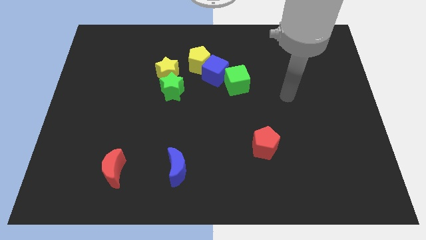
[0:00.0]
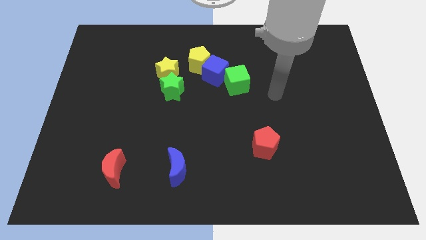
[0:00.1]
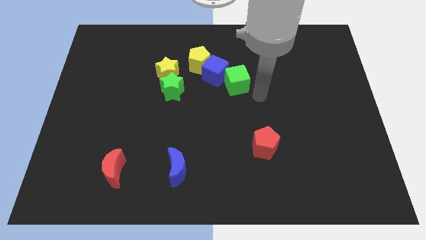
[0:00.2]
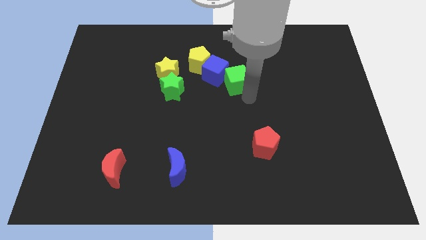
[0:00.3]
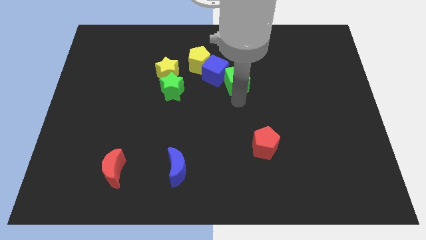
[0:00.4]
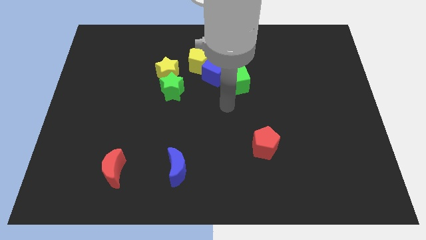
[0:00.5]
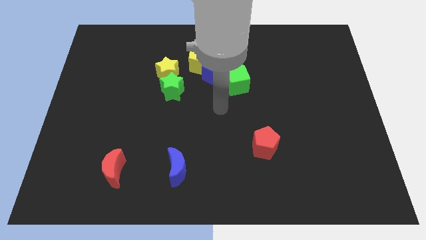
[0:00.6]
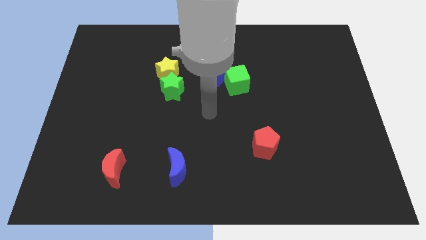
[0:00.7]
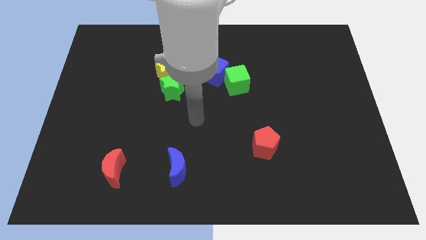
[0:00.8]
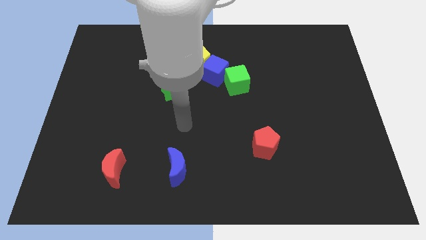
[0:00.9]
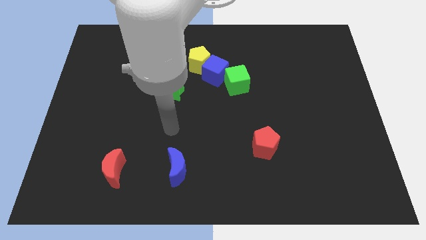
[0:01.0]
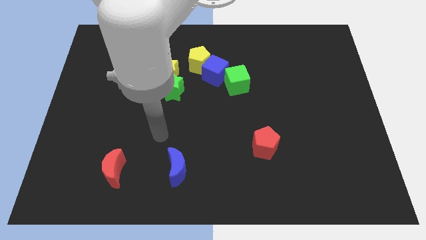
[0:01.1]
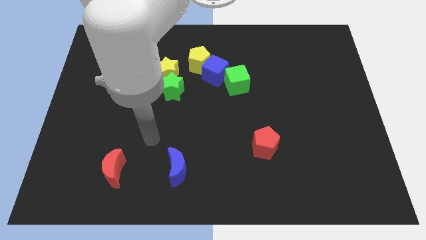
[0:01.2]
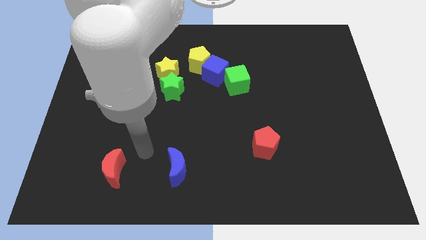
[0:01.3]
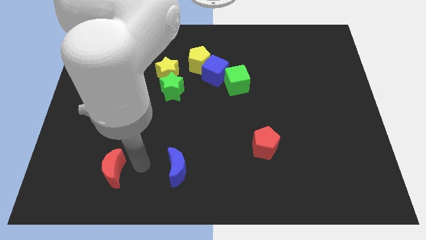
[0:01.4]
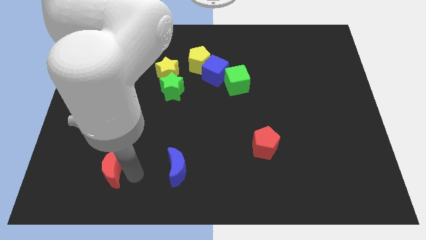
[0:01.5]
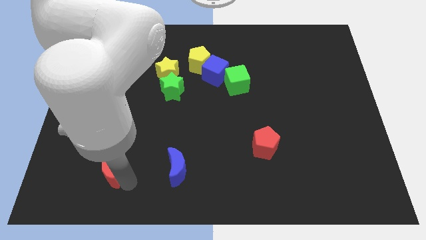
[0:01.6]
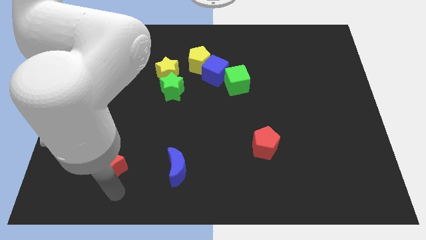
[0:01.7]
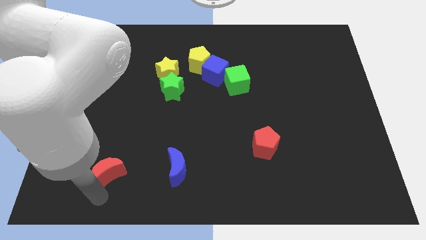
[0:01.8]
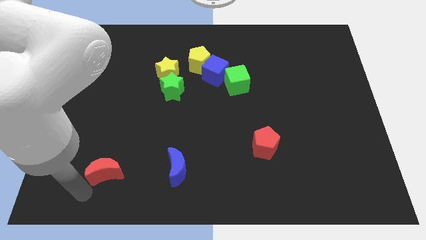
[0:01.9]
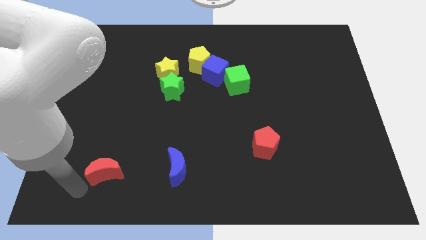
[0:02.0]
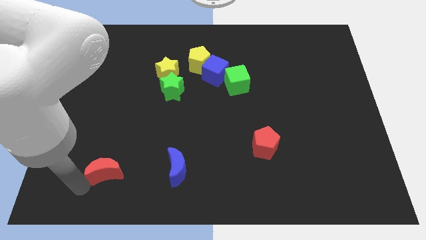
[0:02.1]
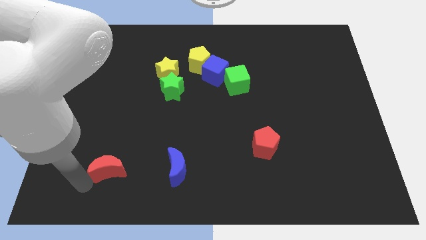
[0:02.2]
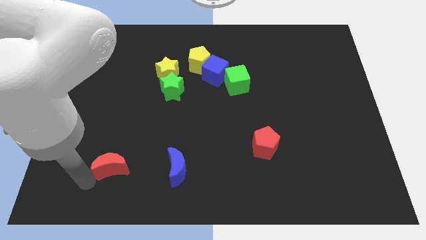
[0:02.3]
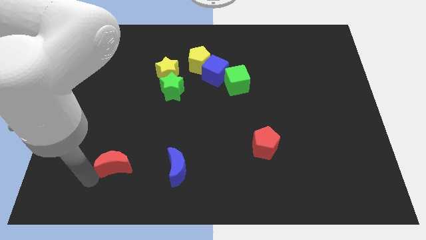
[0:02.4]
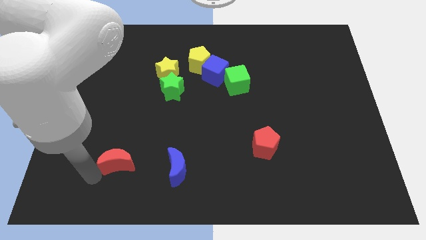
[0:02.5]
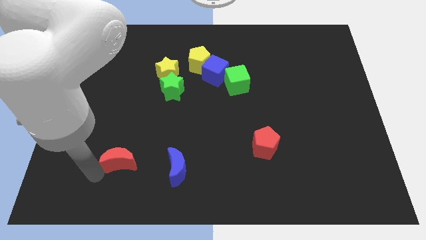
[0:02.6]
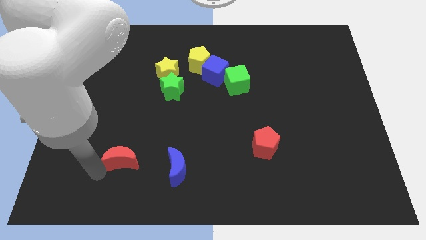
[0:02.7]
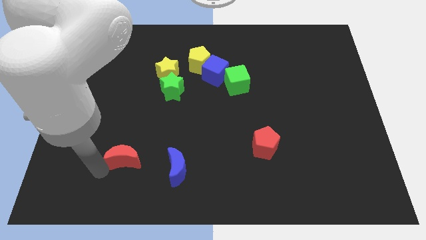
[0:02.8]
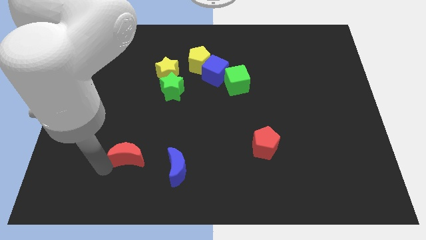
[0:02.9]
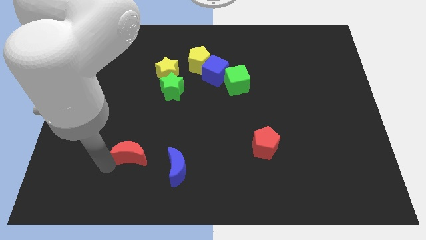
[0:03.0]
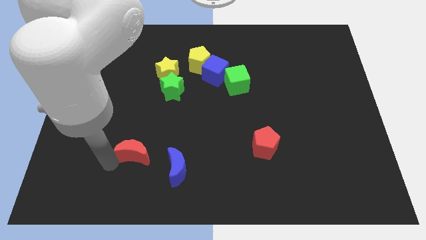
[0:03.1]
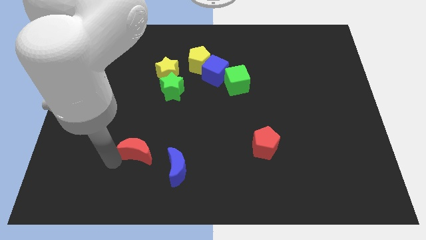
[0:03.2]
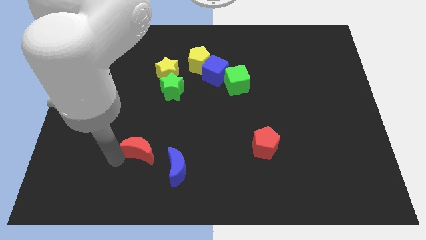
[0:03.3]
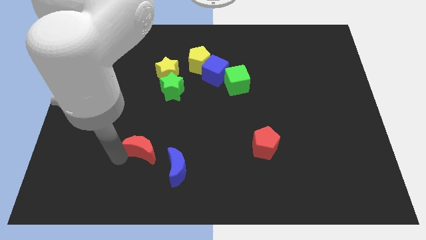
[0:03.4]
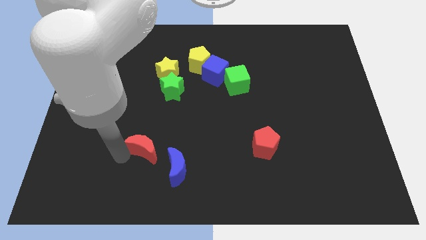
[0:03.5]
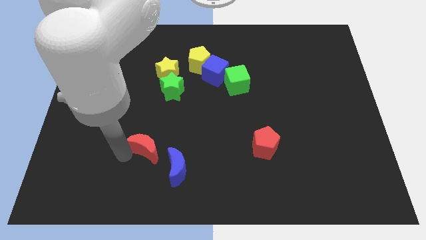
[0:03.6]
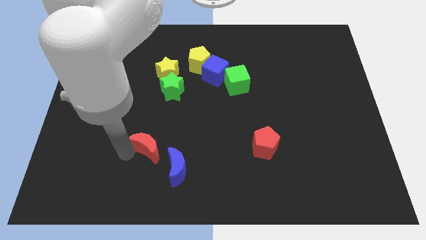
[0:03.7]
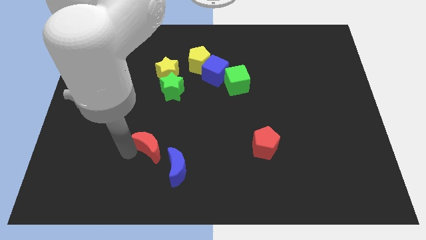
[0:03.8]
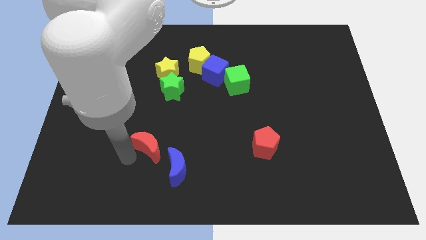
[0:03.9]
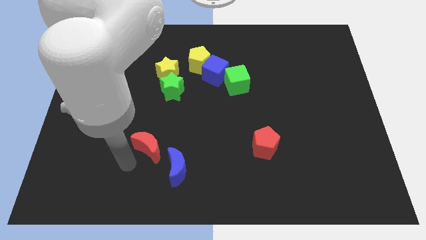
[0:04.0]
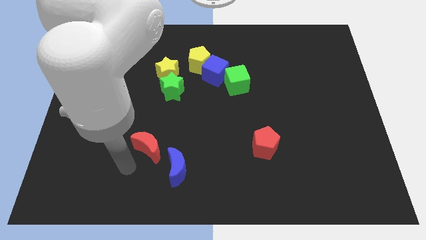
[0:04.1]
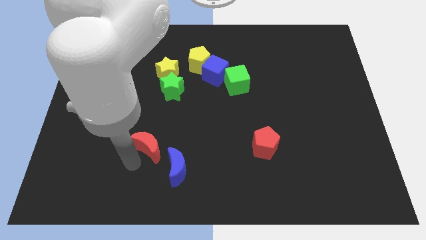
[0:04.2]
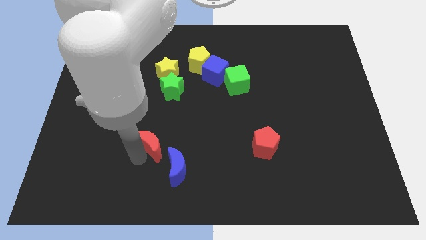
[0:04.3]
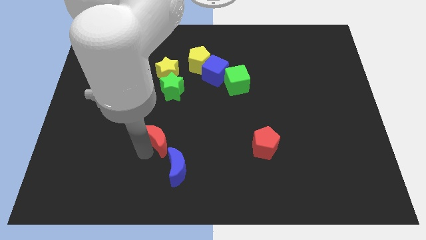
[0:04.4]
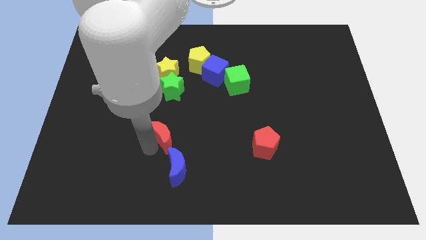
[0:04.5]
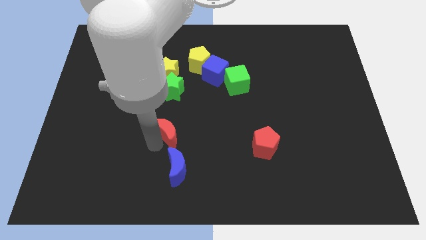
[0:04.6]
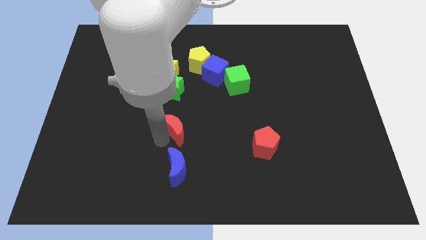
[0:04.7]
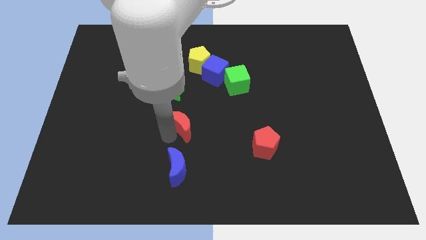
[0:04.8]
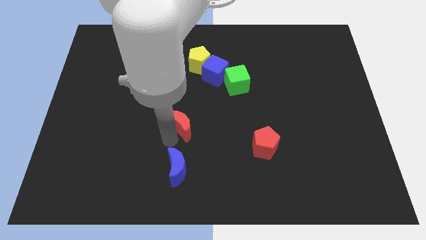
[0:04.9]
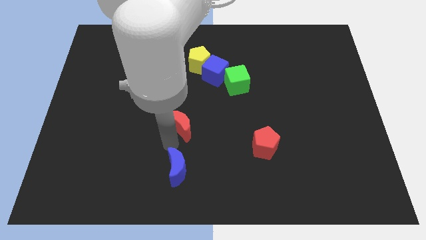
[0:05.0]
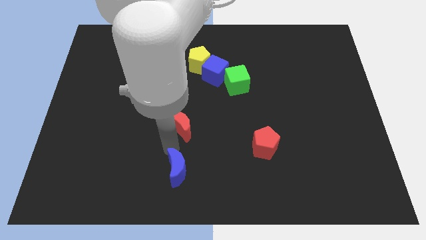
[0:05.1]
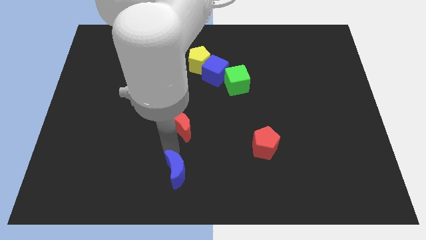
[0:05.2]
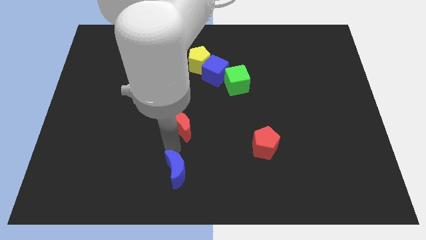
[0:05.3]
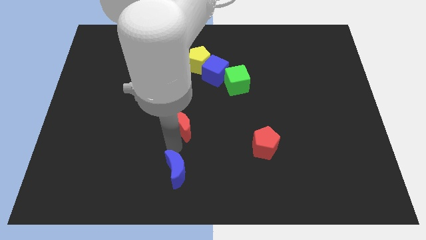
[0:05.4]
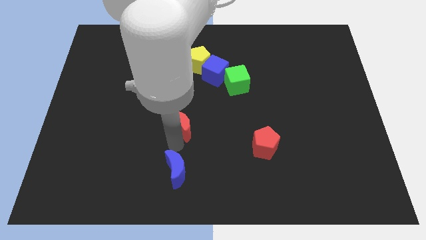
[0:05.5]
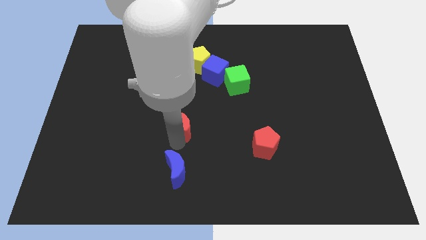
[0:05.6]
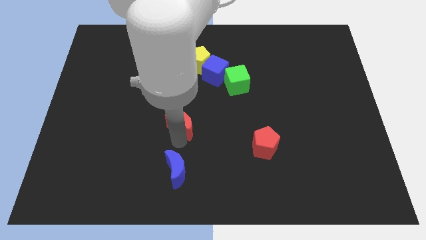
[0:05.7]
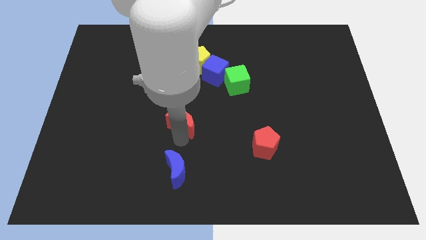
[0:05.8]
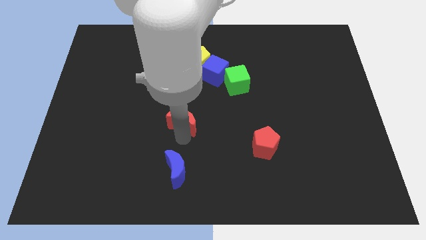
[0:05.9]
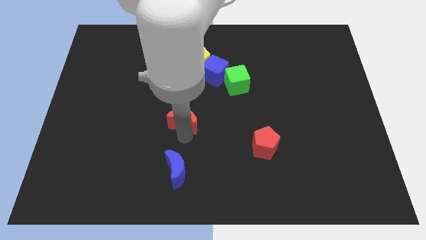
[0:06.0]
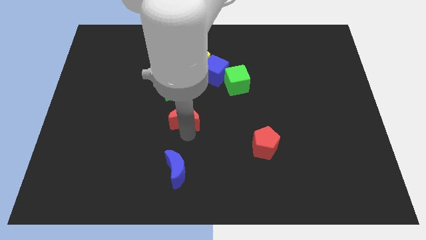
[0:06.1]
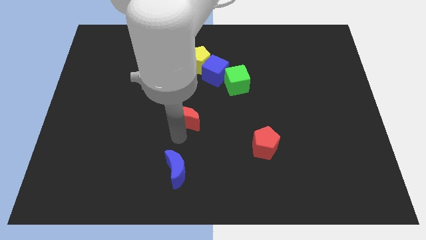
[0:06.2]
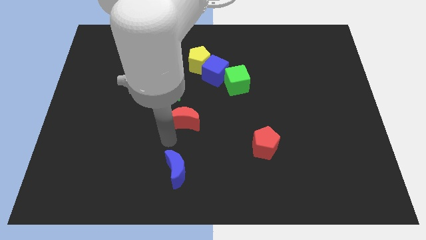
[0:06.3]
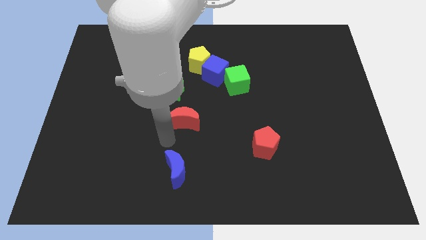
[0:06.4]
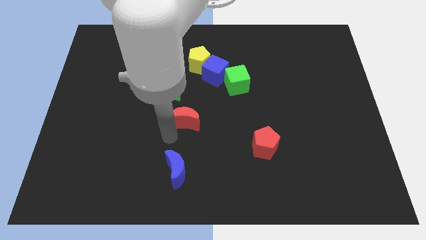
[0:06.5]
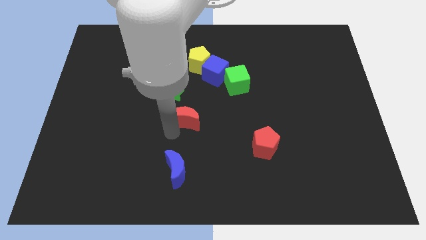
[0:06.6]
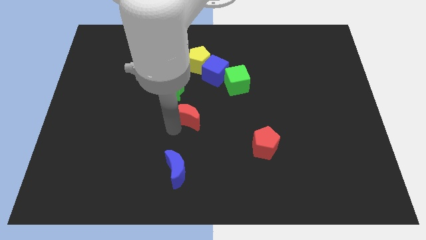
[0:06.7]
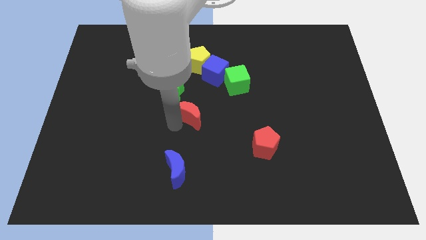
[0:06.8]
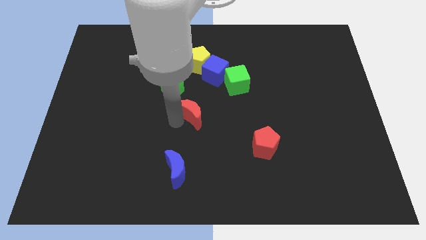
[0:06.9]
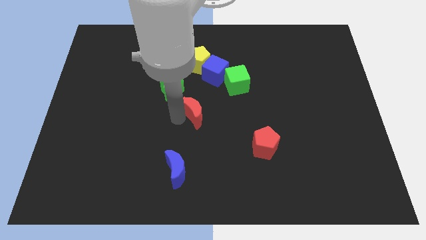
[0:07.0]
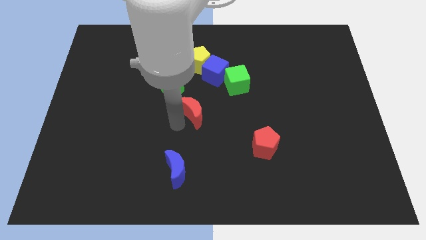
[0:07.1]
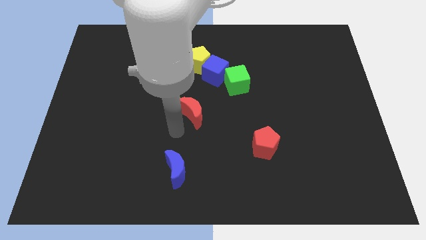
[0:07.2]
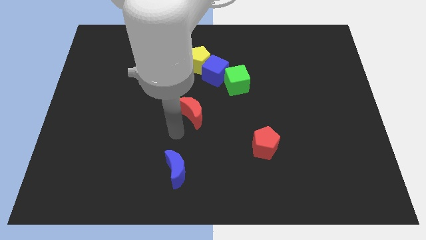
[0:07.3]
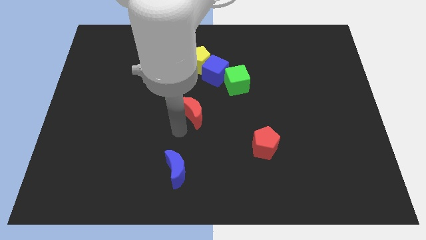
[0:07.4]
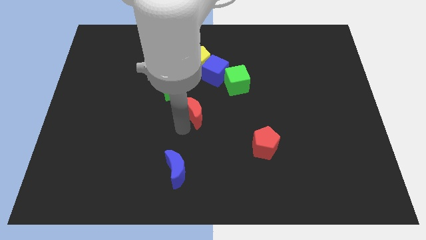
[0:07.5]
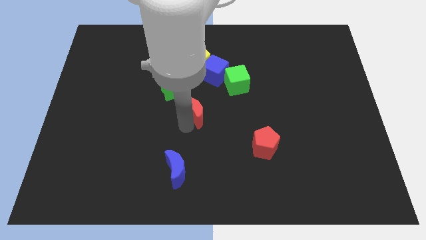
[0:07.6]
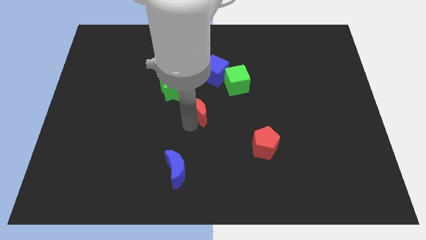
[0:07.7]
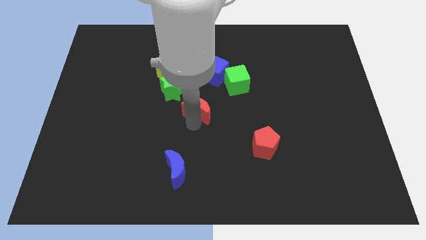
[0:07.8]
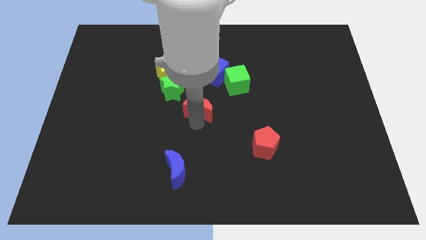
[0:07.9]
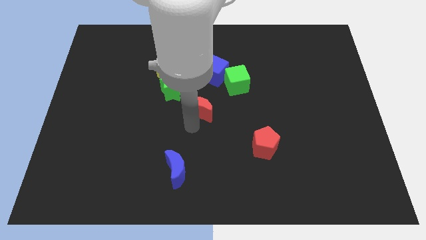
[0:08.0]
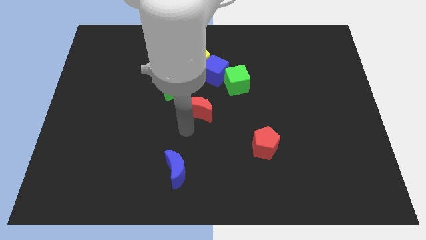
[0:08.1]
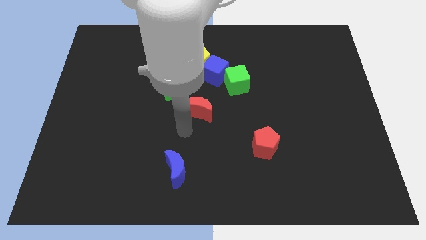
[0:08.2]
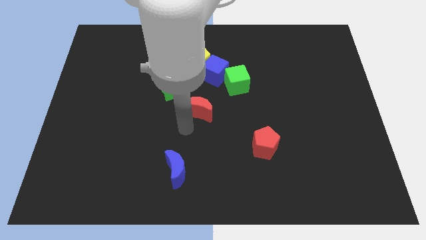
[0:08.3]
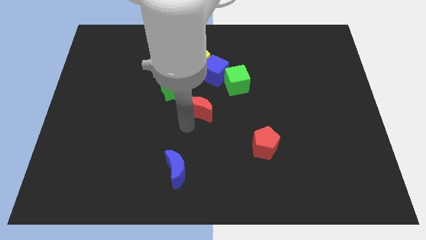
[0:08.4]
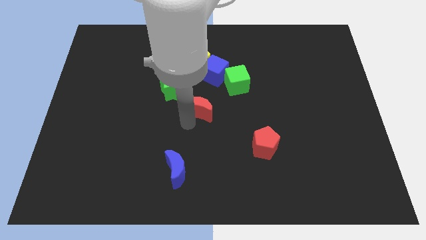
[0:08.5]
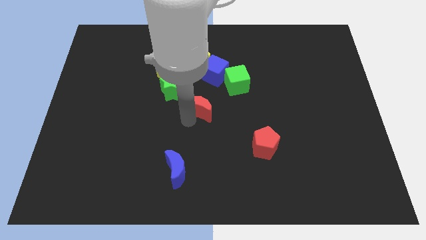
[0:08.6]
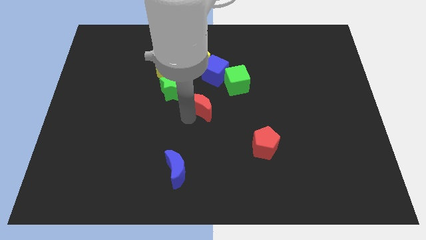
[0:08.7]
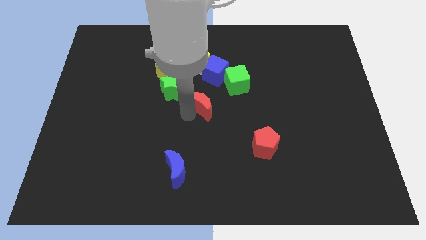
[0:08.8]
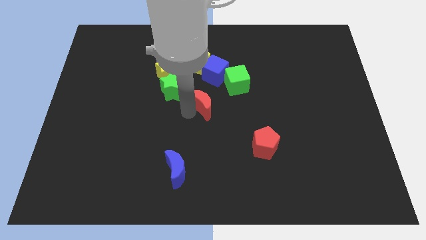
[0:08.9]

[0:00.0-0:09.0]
slide the red moon just right of the green star
